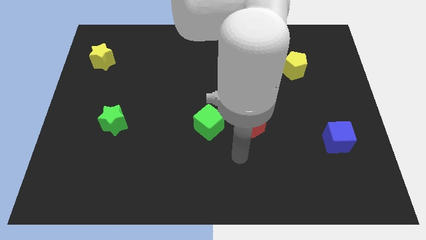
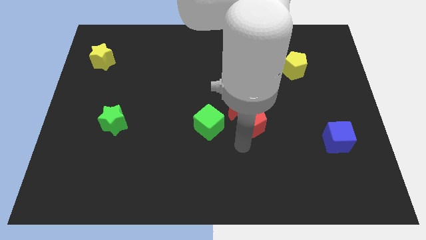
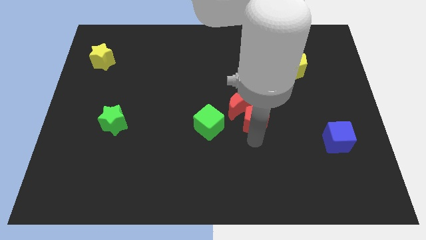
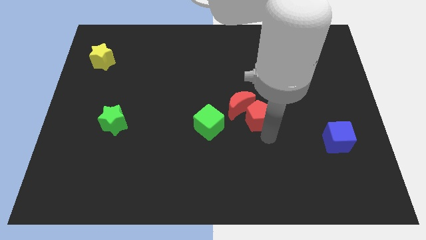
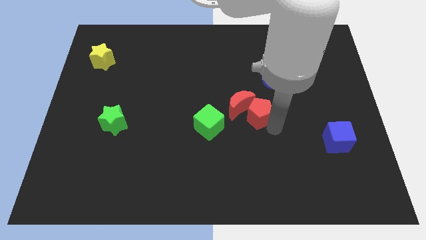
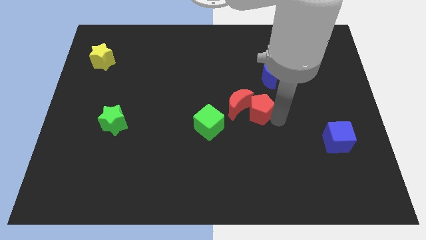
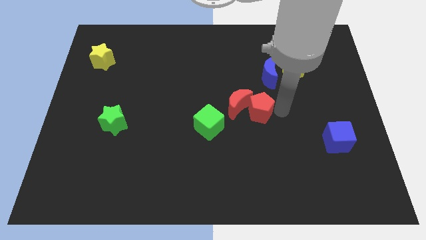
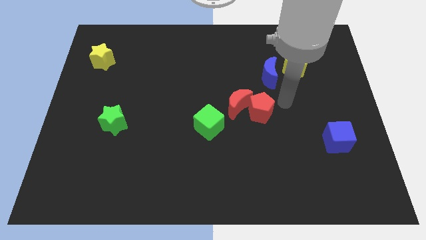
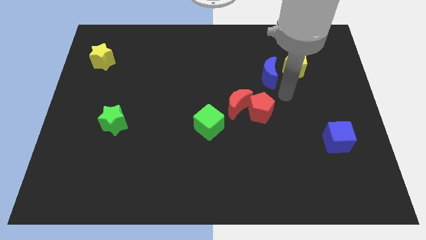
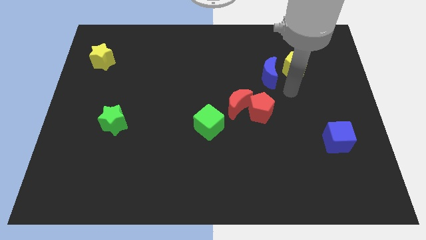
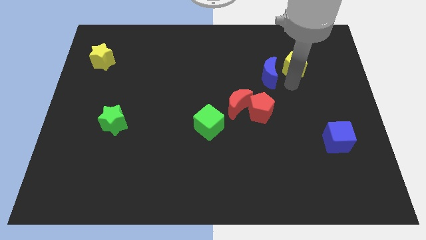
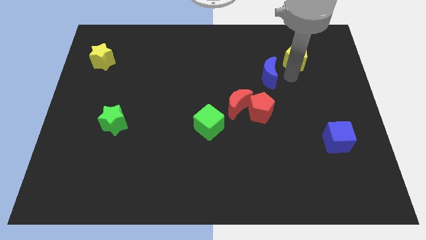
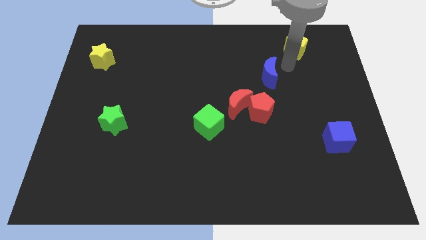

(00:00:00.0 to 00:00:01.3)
move the blue moon away from the yellow pentagon

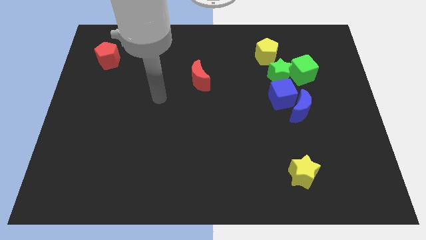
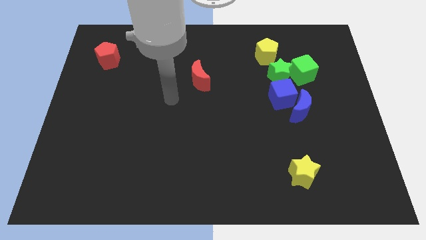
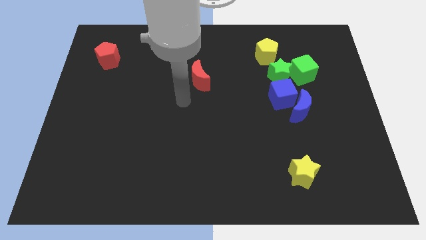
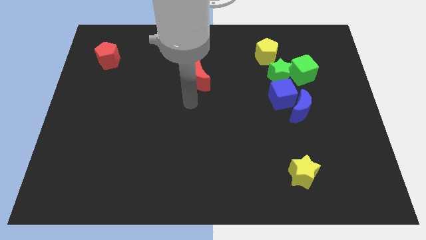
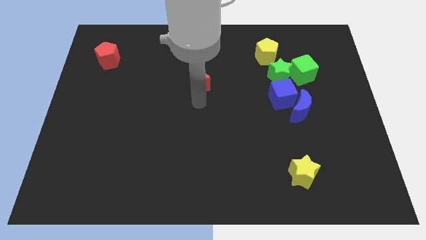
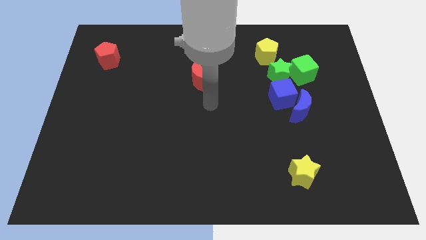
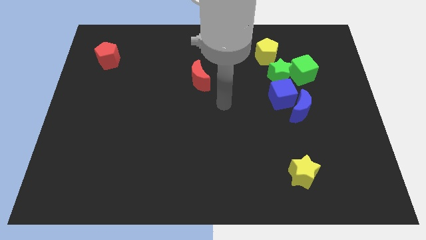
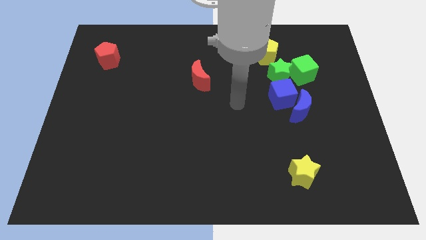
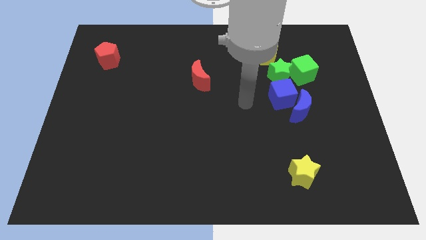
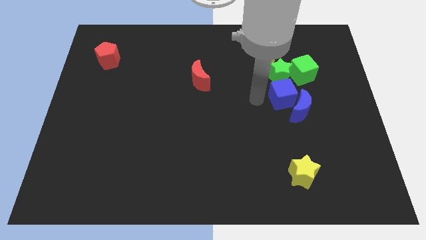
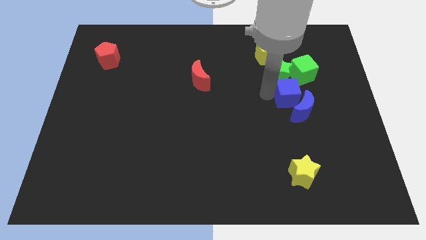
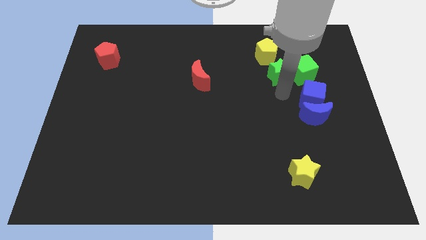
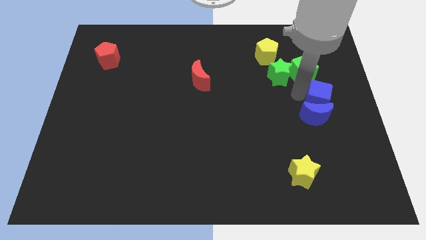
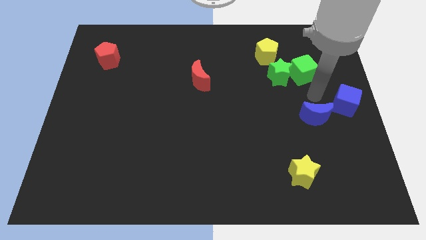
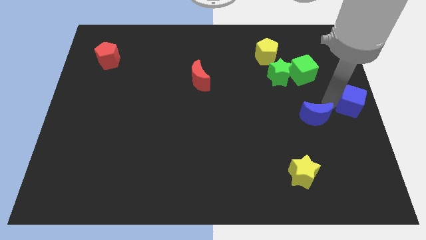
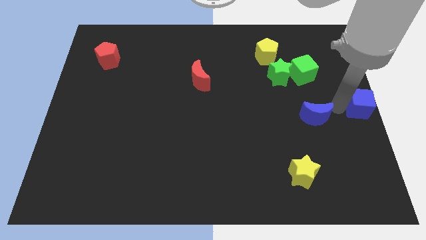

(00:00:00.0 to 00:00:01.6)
move the blue moon away from the blue cube

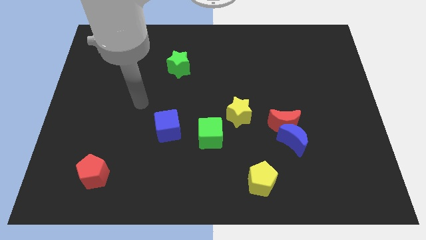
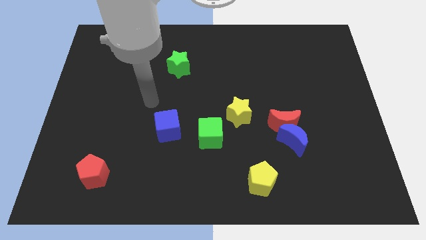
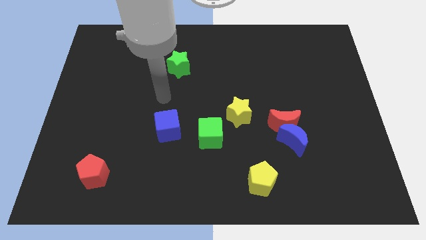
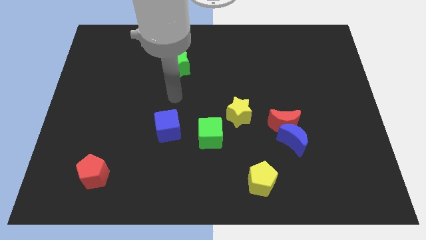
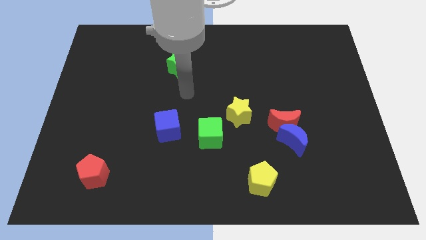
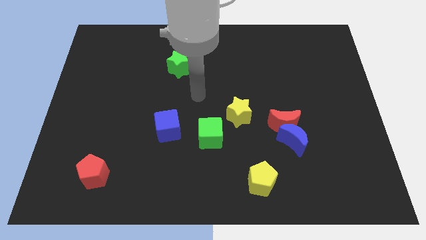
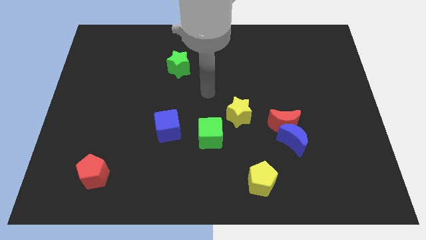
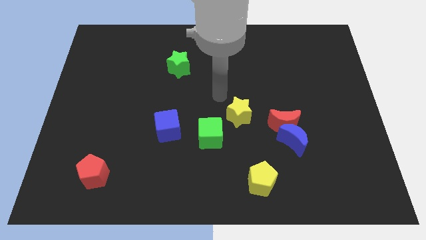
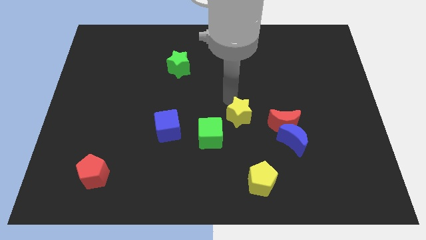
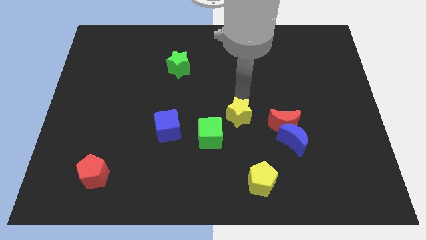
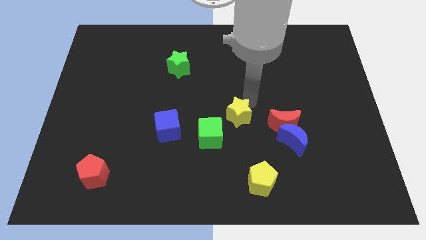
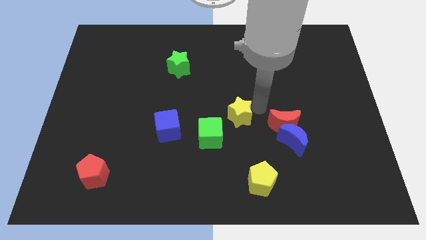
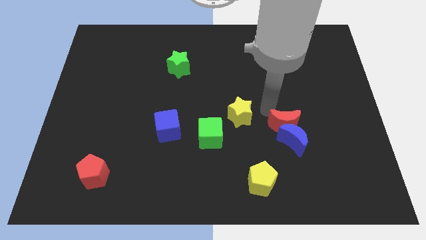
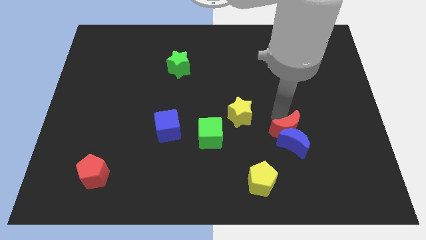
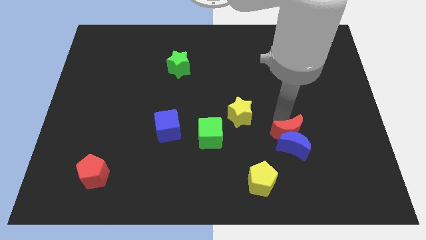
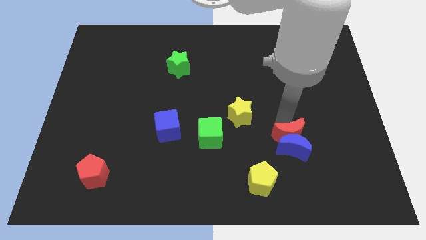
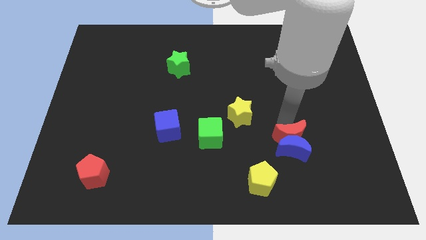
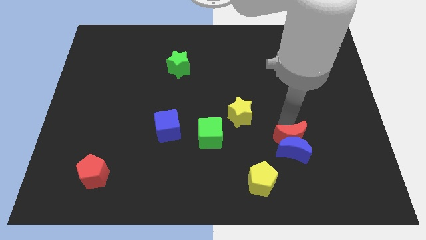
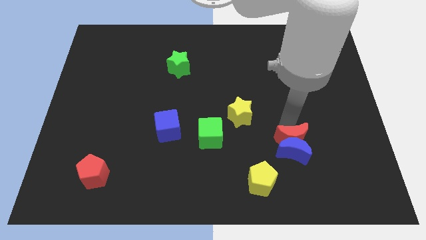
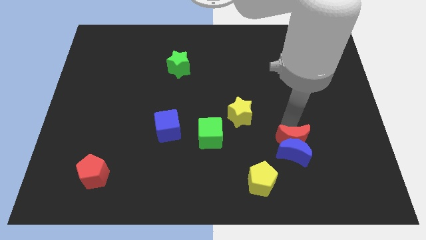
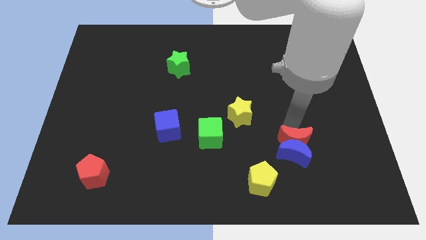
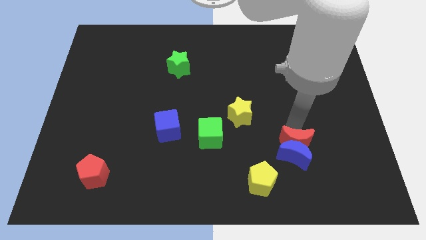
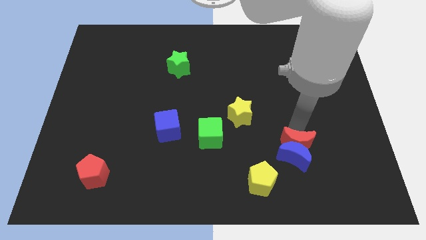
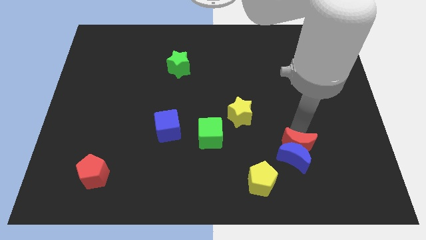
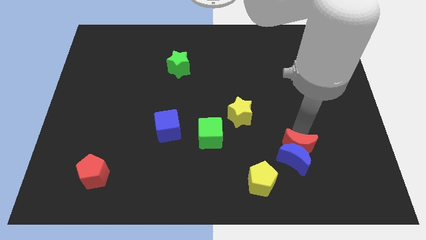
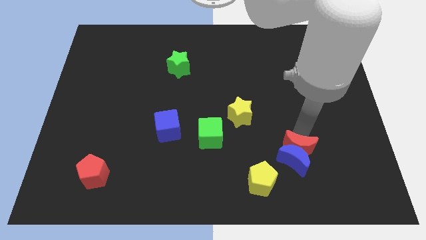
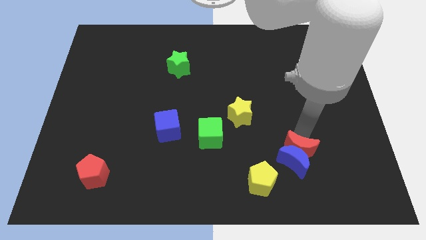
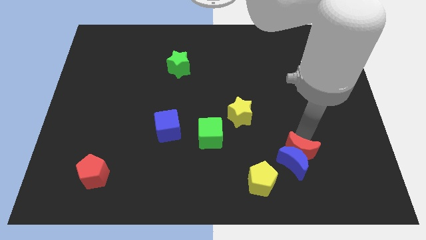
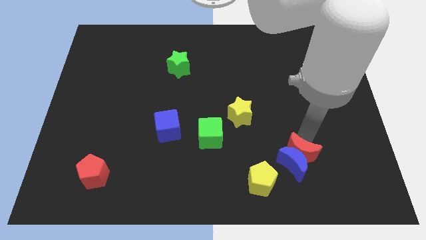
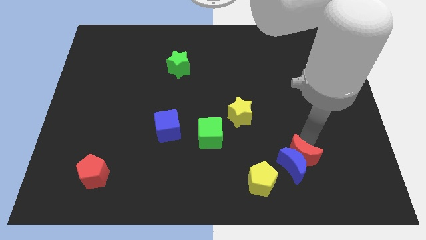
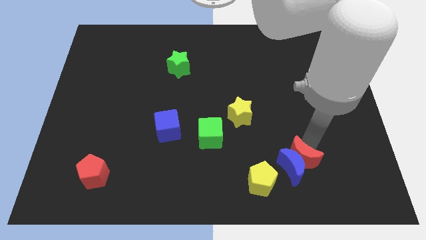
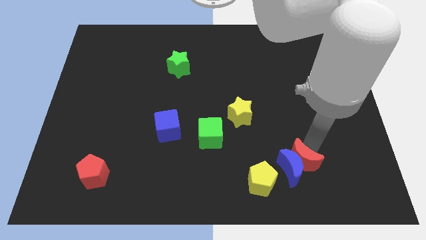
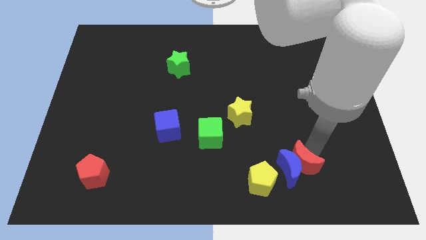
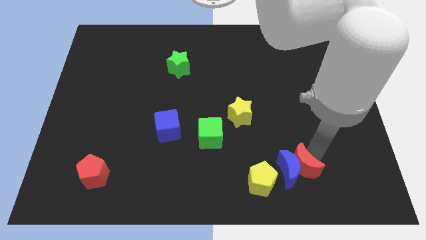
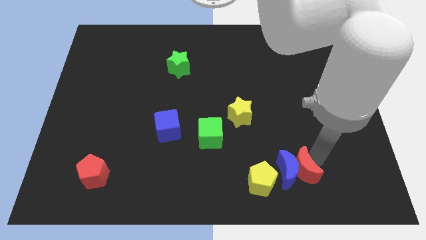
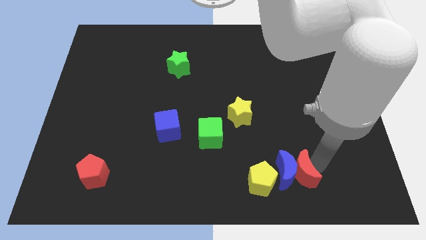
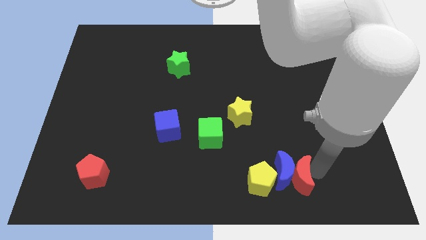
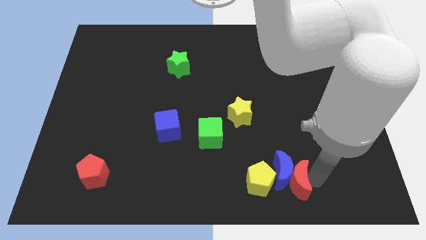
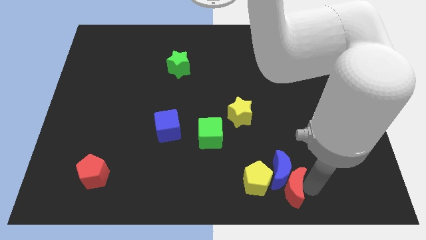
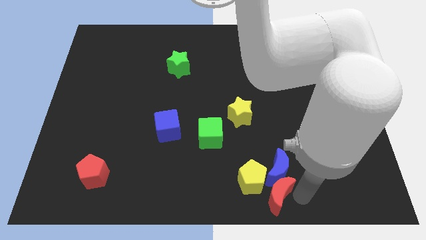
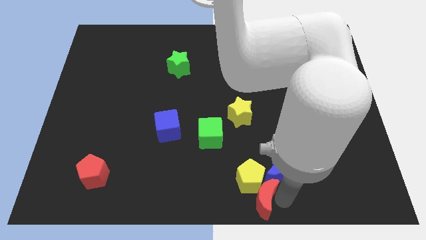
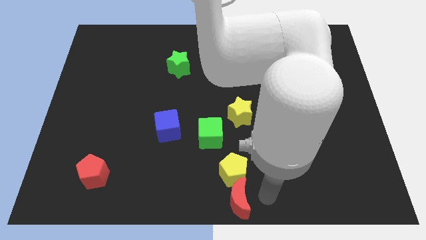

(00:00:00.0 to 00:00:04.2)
pull the blue moon apart from the red moon

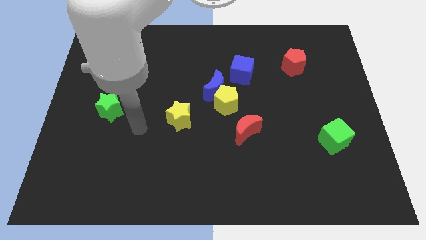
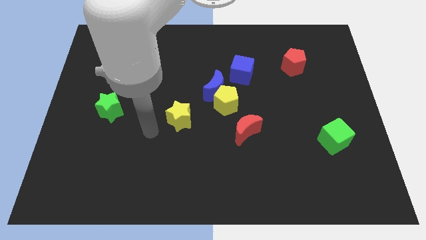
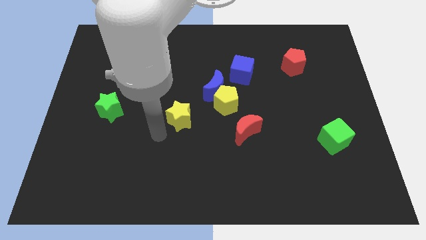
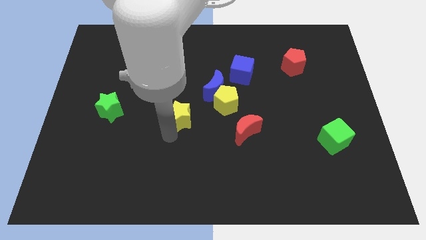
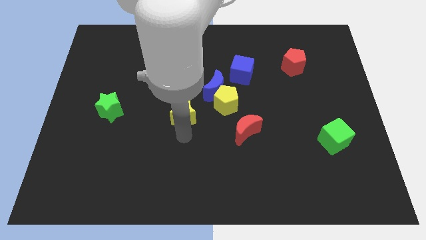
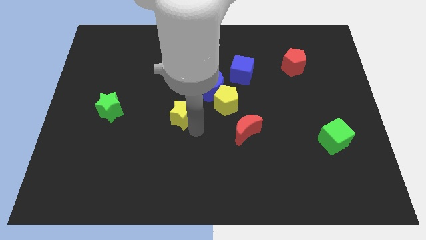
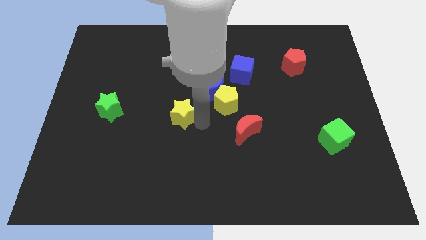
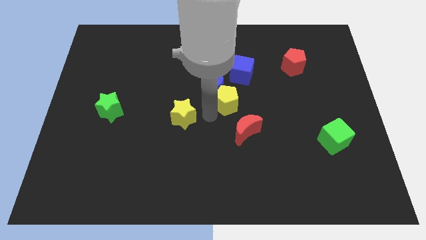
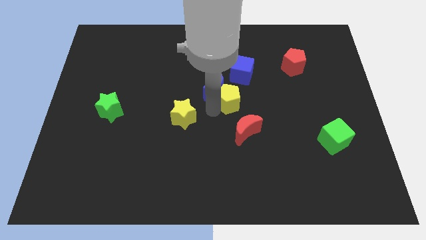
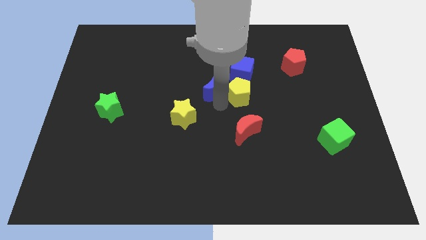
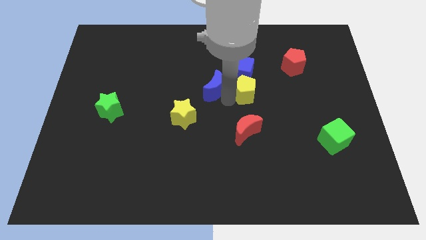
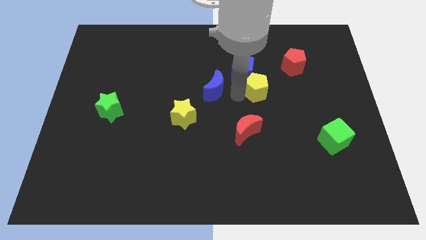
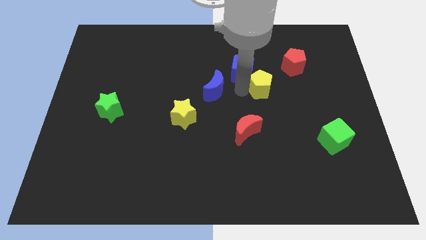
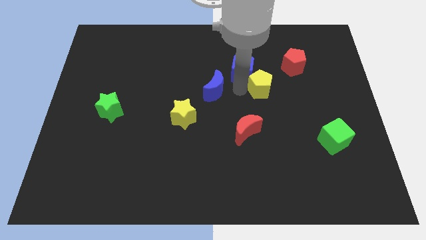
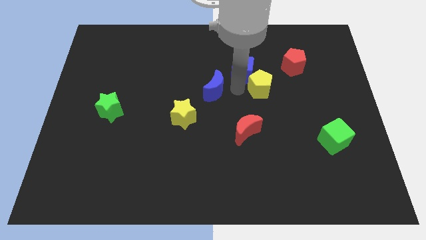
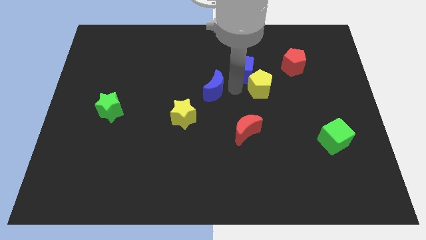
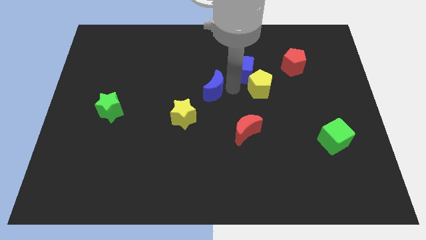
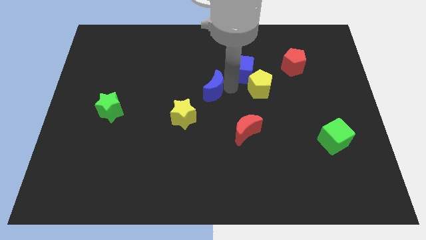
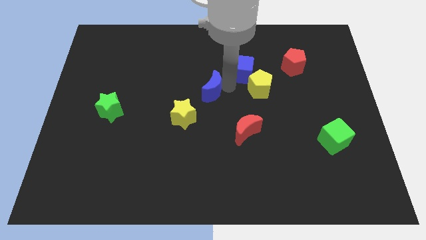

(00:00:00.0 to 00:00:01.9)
pull the blue moon apart from the yellow pentagon and blue cube

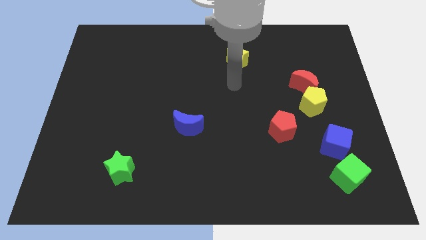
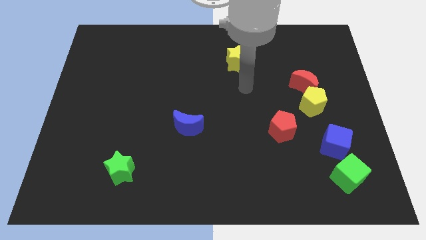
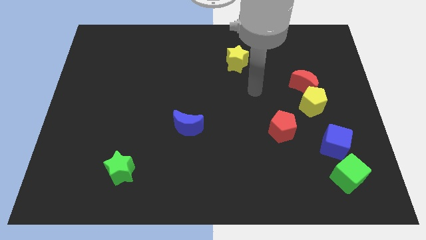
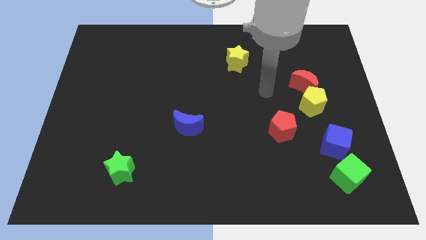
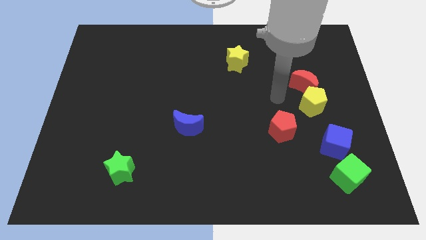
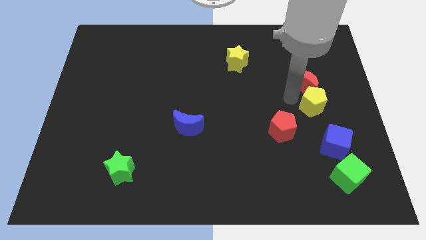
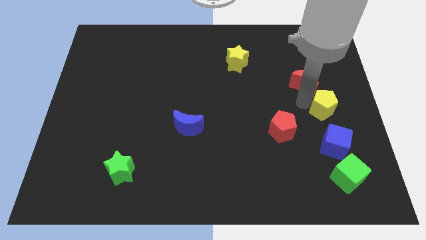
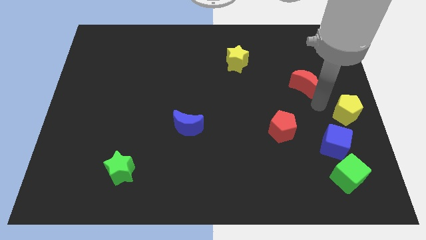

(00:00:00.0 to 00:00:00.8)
pull the red moon apart from the yellow pentagon
